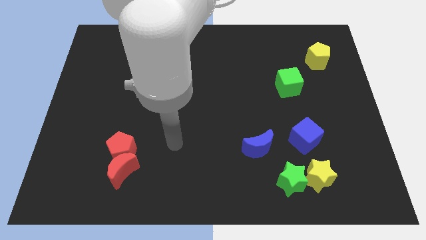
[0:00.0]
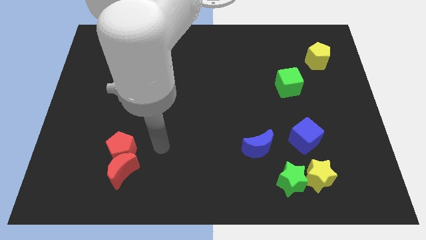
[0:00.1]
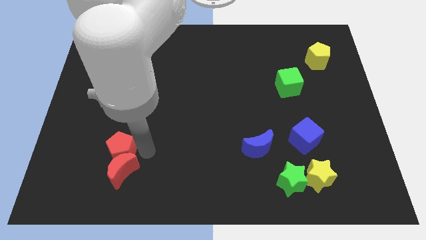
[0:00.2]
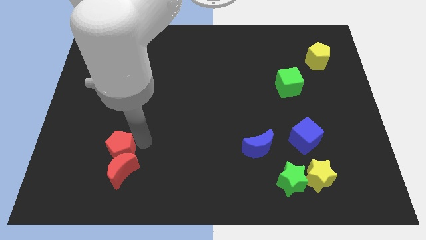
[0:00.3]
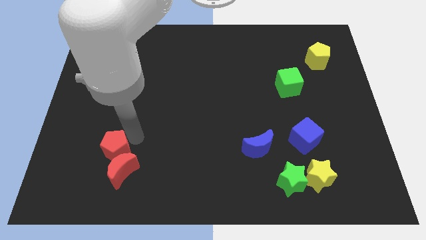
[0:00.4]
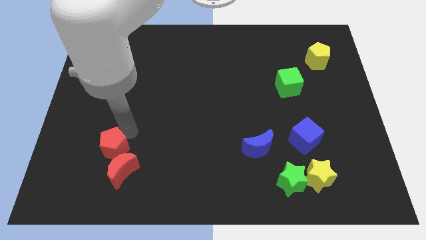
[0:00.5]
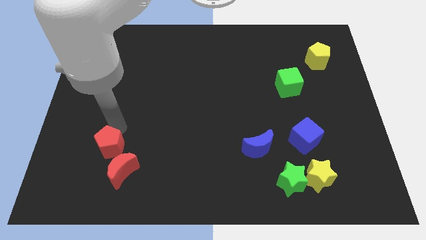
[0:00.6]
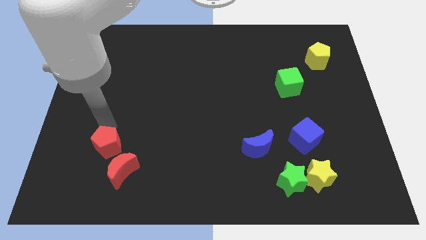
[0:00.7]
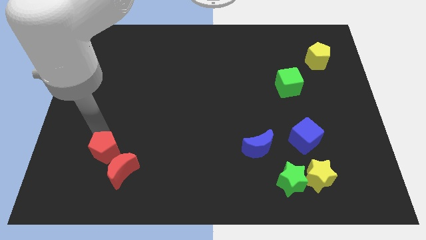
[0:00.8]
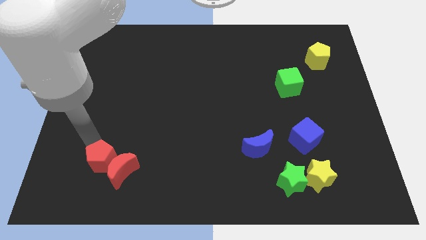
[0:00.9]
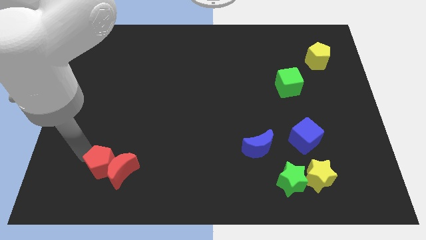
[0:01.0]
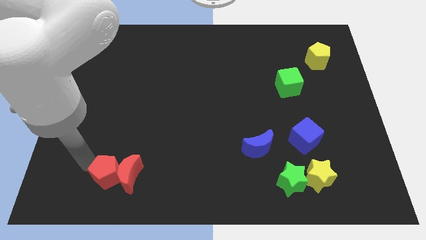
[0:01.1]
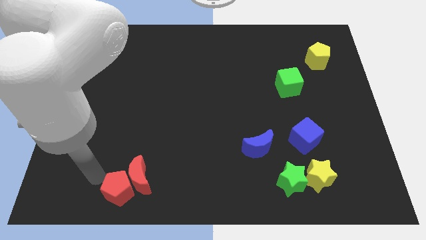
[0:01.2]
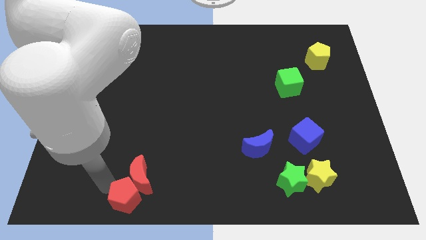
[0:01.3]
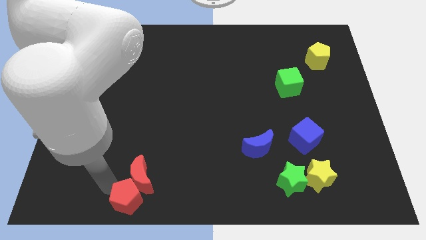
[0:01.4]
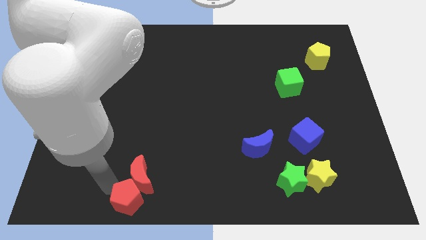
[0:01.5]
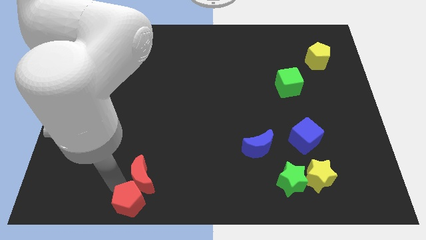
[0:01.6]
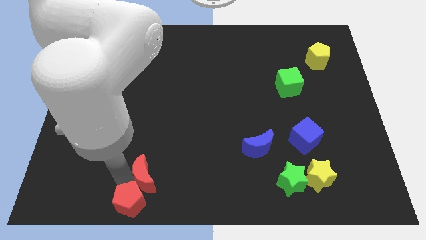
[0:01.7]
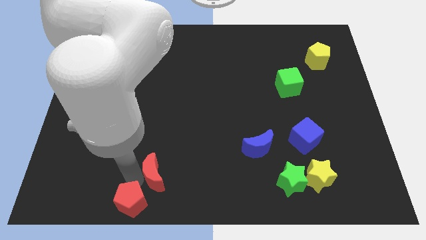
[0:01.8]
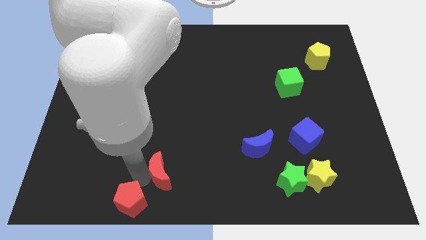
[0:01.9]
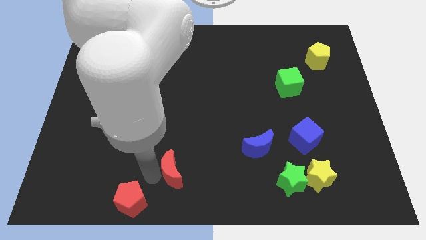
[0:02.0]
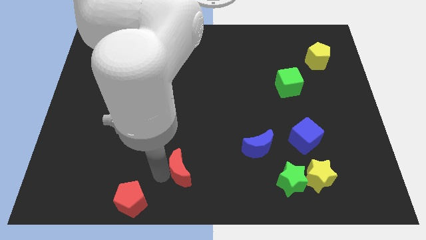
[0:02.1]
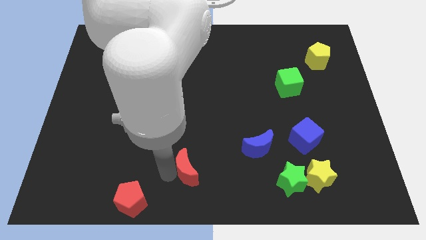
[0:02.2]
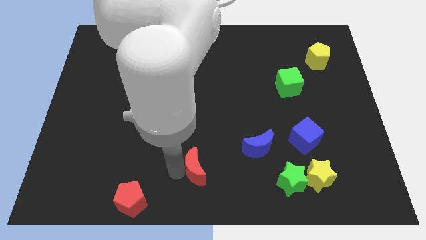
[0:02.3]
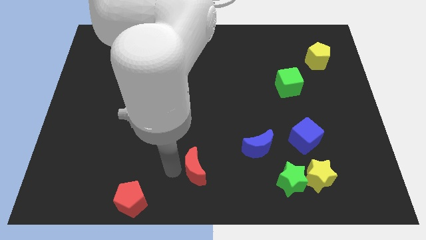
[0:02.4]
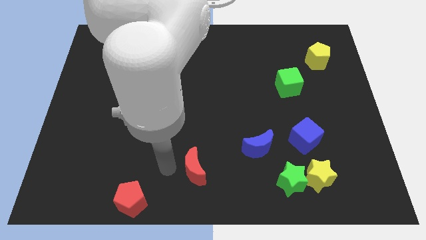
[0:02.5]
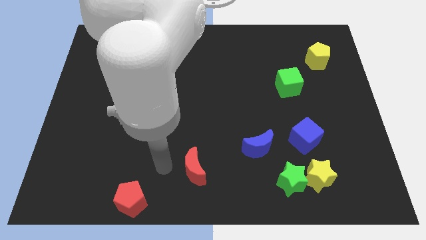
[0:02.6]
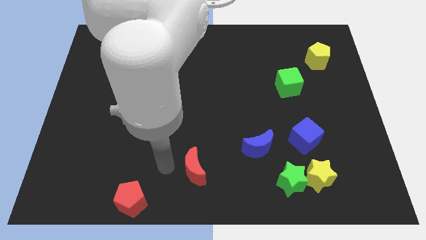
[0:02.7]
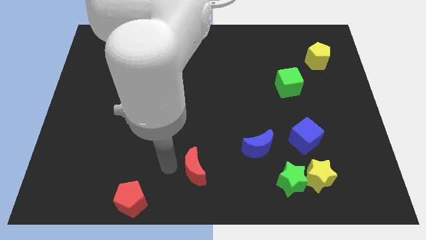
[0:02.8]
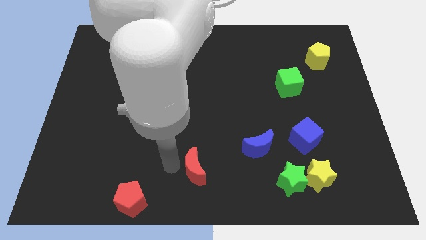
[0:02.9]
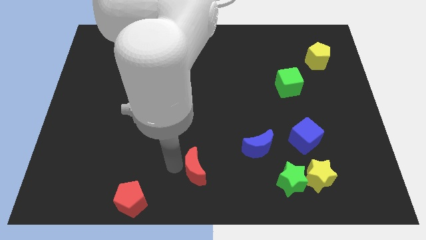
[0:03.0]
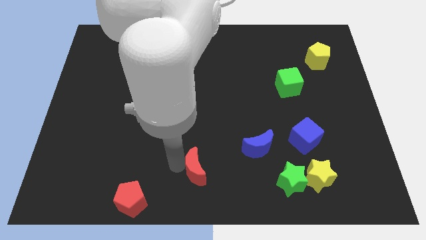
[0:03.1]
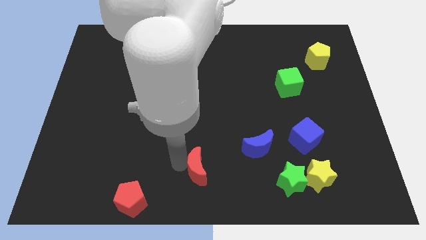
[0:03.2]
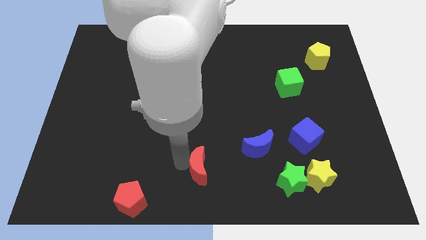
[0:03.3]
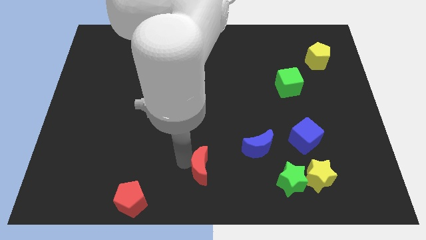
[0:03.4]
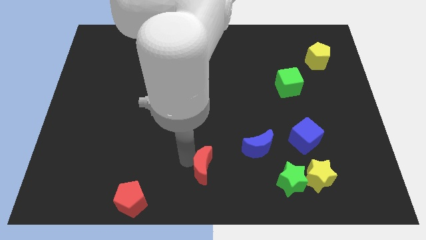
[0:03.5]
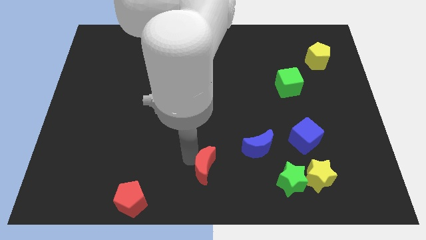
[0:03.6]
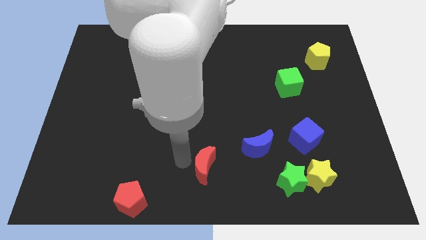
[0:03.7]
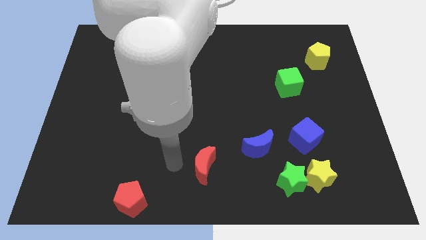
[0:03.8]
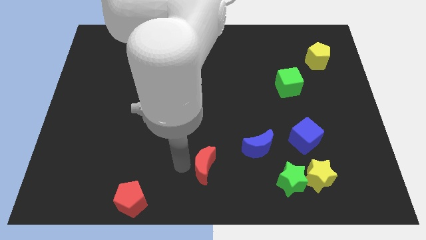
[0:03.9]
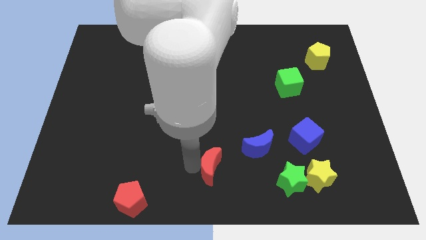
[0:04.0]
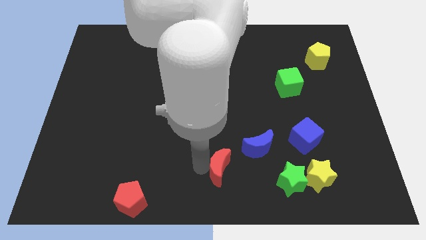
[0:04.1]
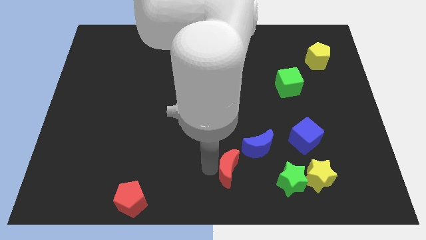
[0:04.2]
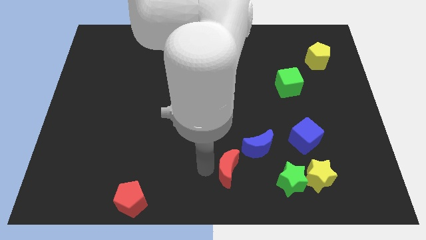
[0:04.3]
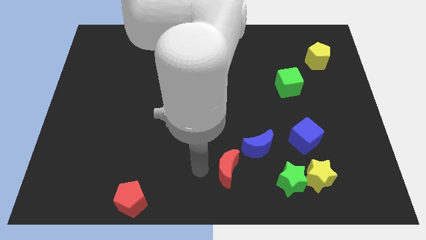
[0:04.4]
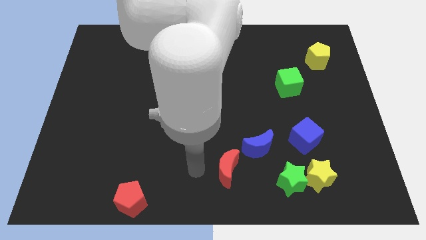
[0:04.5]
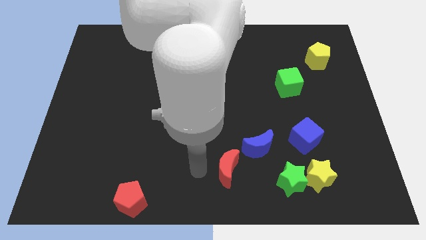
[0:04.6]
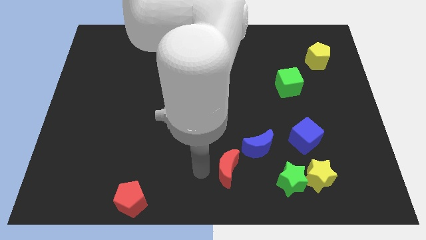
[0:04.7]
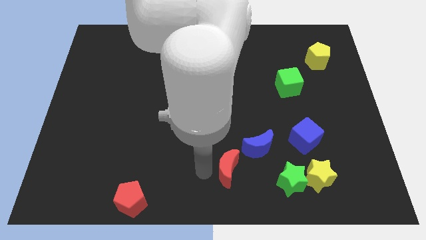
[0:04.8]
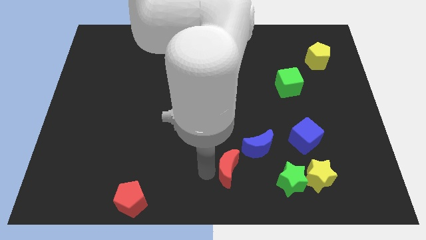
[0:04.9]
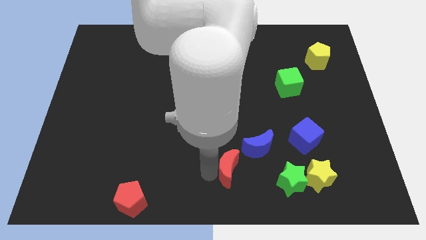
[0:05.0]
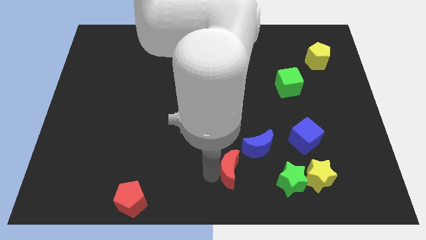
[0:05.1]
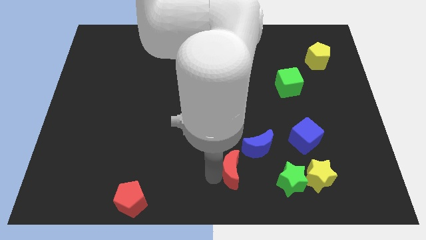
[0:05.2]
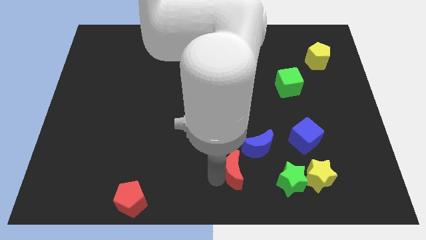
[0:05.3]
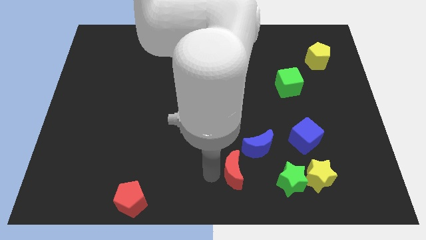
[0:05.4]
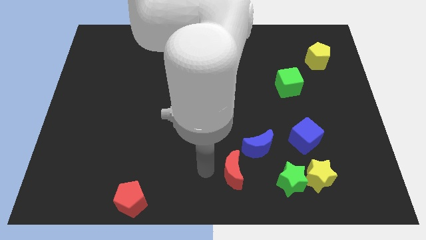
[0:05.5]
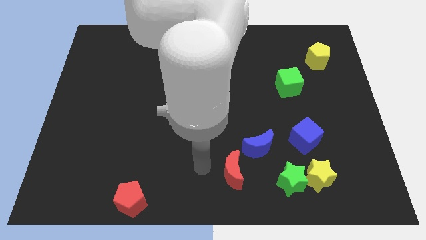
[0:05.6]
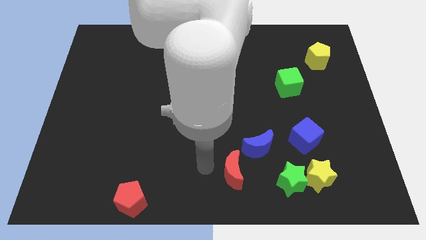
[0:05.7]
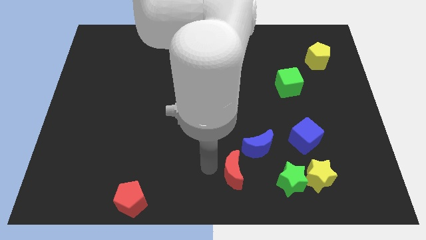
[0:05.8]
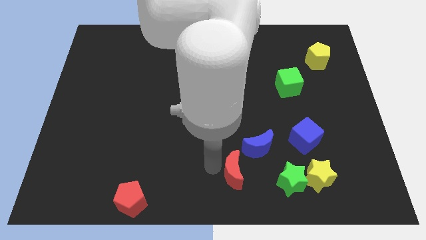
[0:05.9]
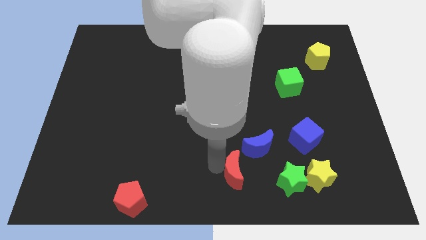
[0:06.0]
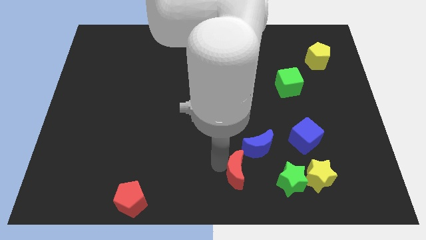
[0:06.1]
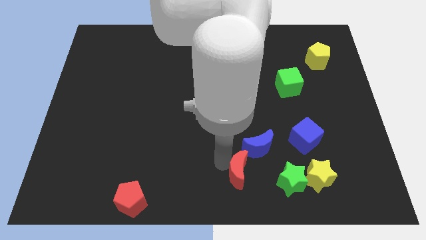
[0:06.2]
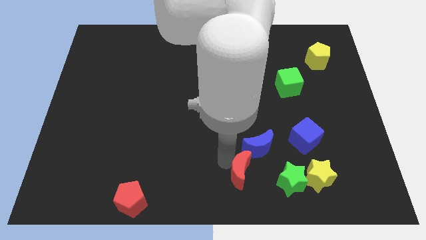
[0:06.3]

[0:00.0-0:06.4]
move the red moon left of the yellow star

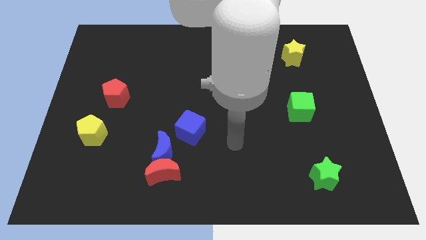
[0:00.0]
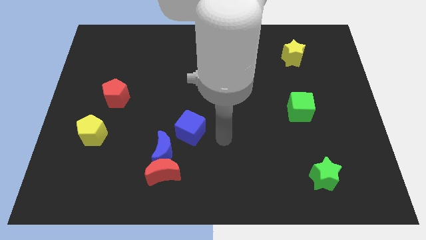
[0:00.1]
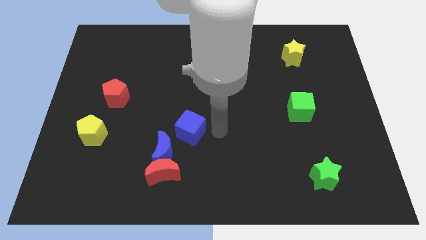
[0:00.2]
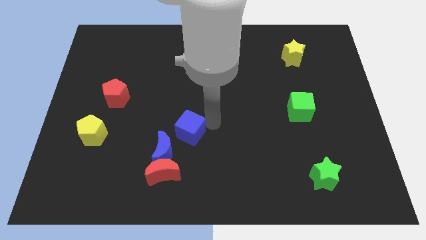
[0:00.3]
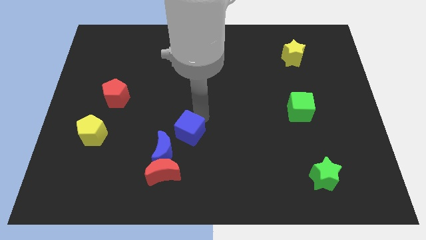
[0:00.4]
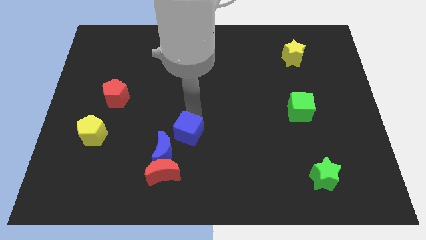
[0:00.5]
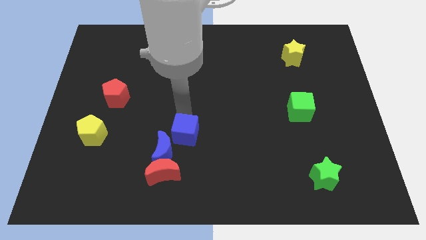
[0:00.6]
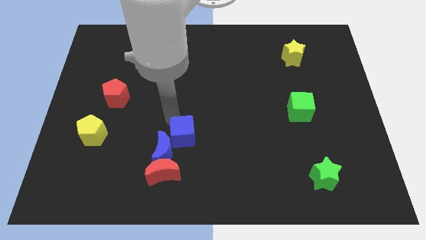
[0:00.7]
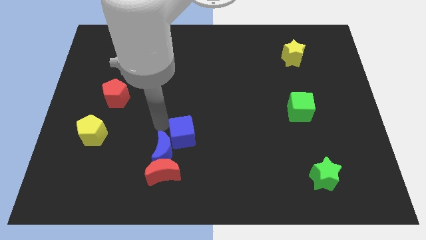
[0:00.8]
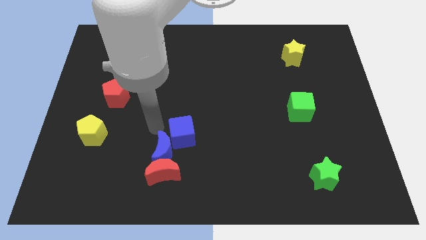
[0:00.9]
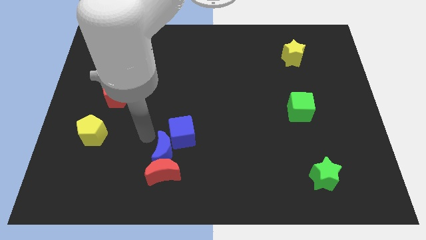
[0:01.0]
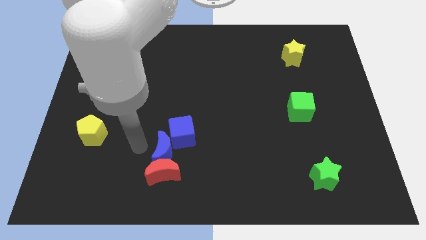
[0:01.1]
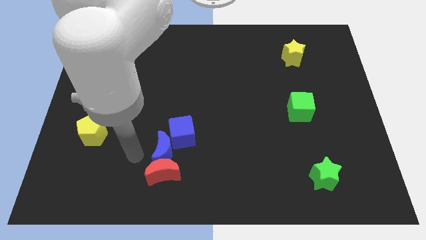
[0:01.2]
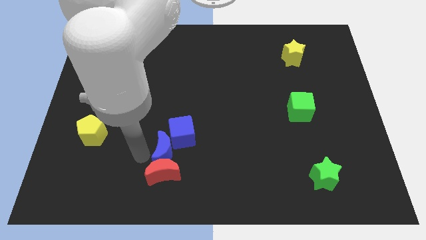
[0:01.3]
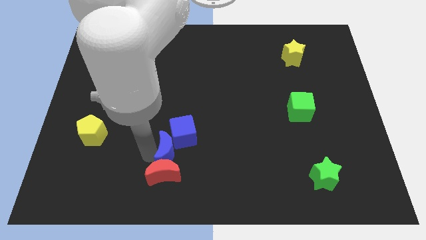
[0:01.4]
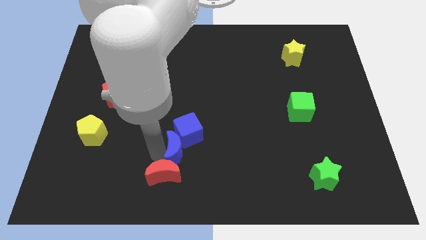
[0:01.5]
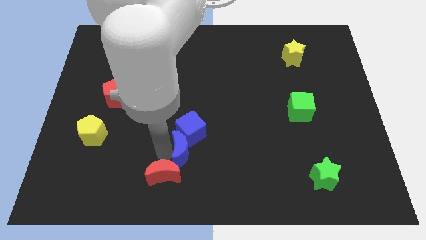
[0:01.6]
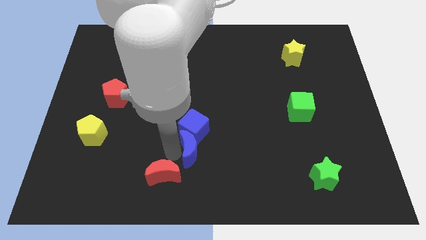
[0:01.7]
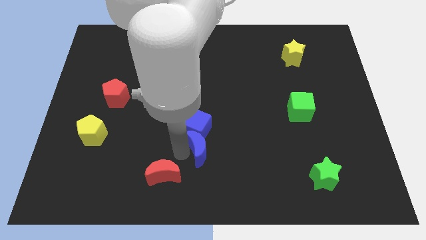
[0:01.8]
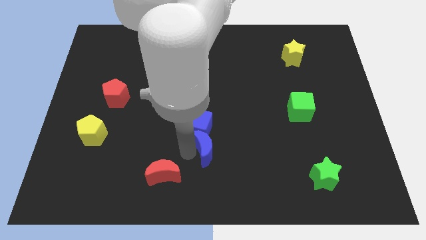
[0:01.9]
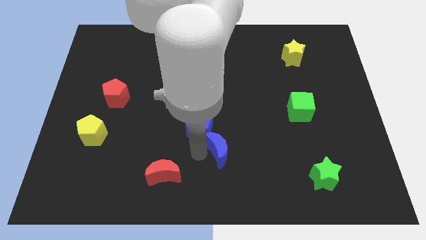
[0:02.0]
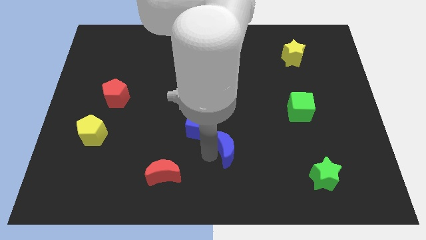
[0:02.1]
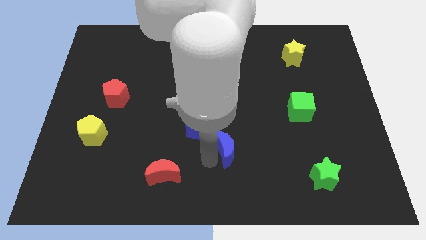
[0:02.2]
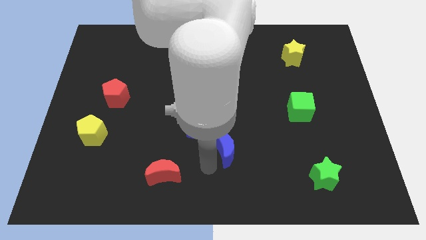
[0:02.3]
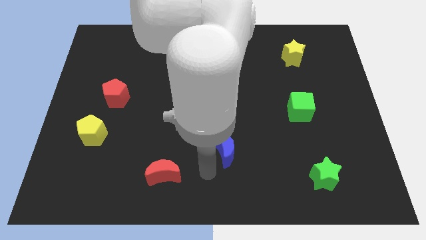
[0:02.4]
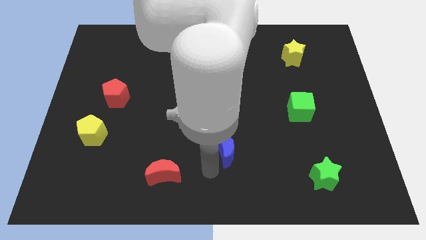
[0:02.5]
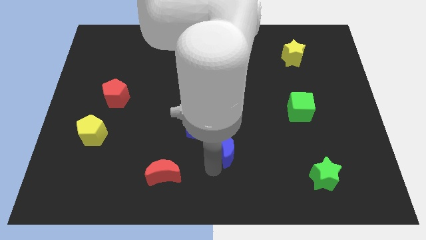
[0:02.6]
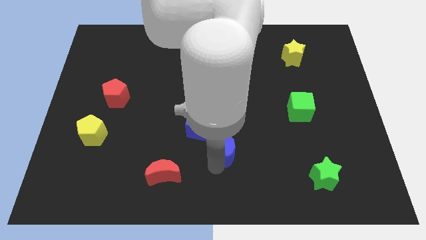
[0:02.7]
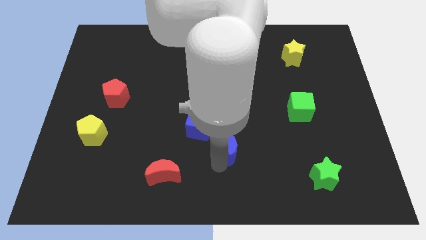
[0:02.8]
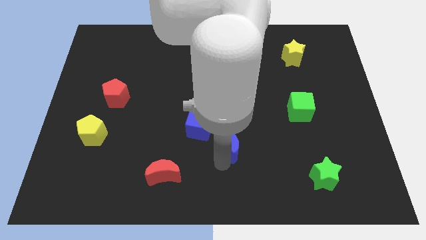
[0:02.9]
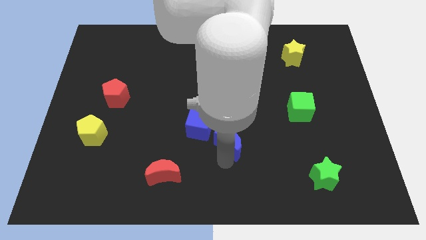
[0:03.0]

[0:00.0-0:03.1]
put the blue moon right of the blue cube
